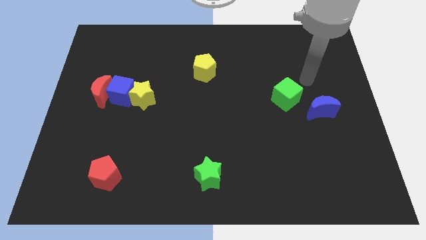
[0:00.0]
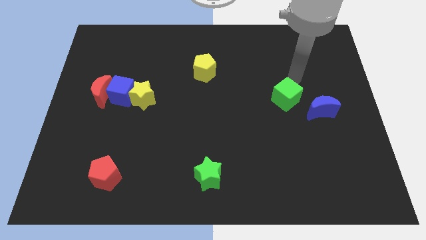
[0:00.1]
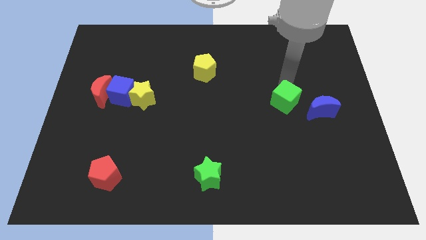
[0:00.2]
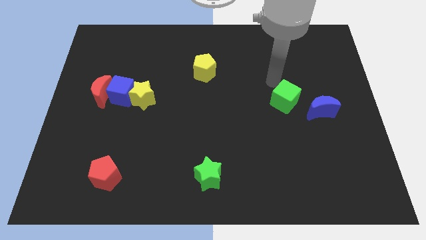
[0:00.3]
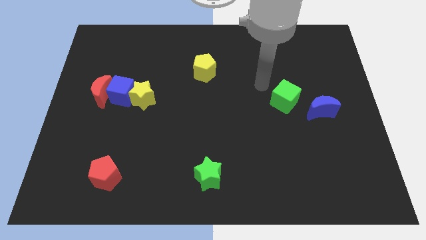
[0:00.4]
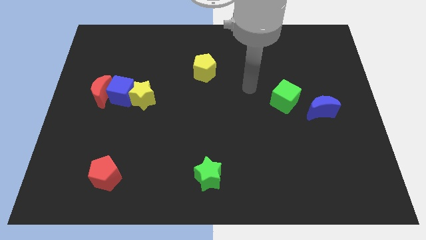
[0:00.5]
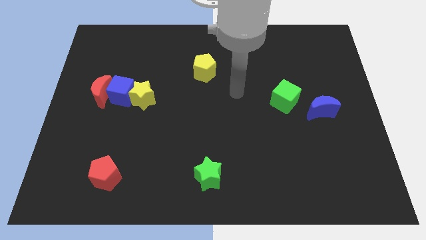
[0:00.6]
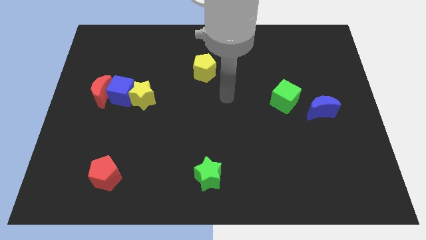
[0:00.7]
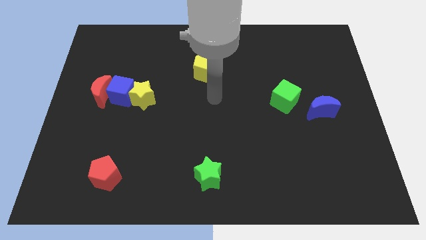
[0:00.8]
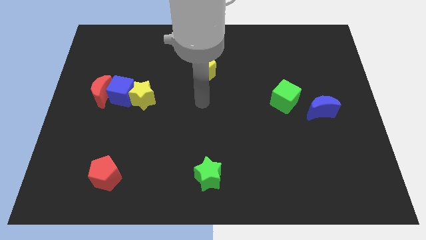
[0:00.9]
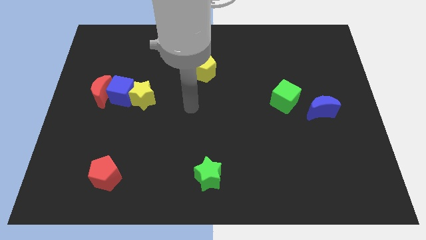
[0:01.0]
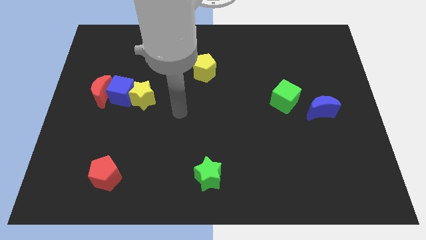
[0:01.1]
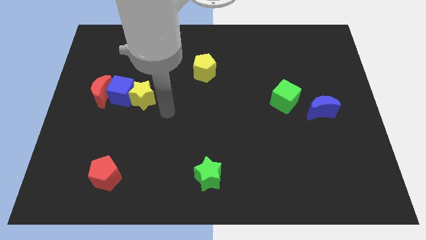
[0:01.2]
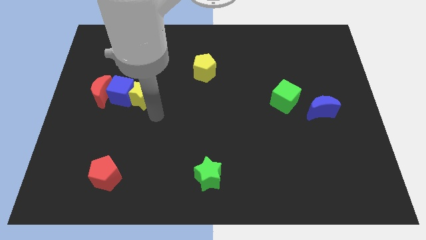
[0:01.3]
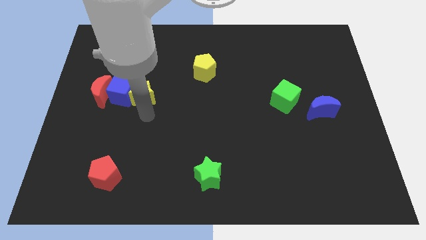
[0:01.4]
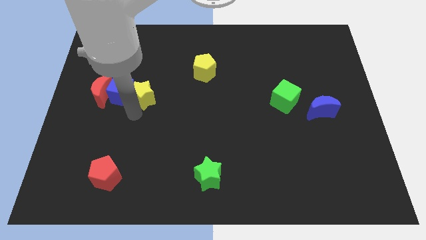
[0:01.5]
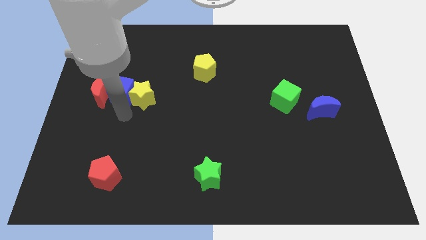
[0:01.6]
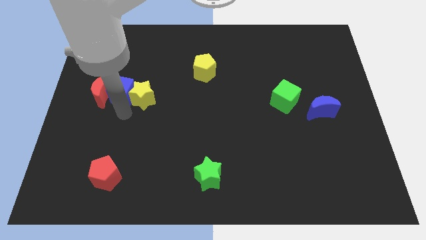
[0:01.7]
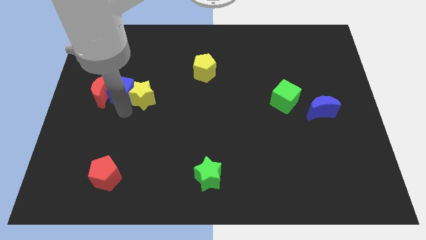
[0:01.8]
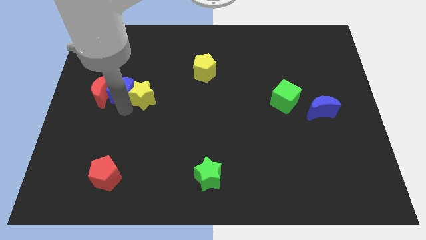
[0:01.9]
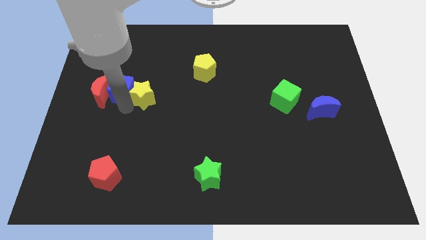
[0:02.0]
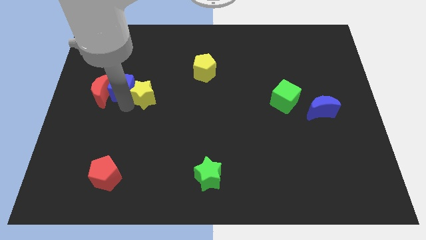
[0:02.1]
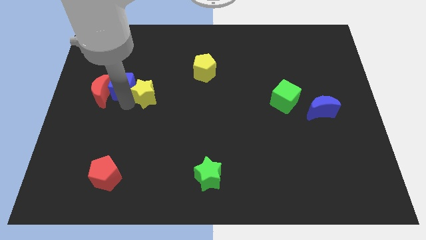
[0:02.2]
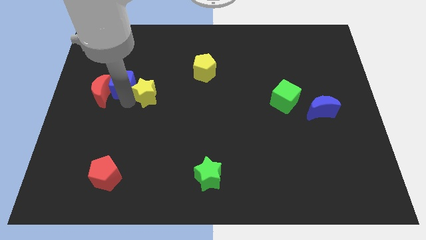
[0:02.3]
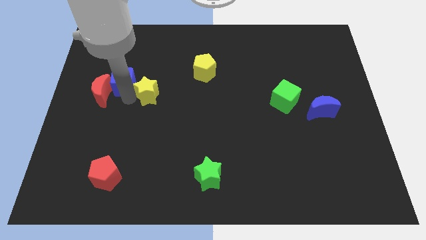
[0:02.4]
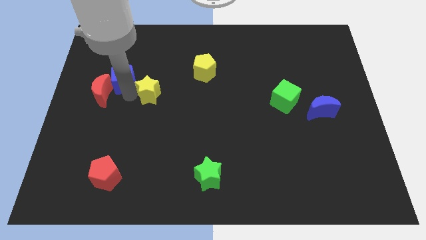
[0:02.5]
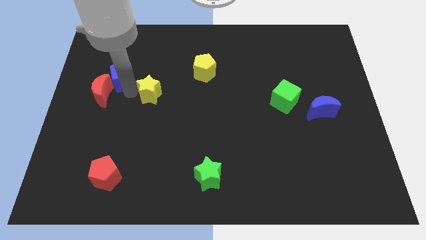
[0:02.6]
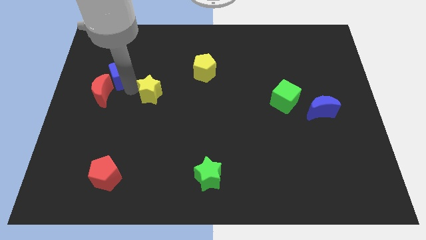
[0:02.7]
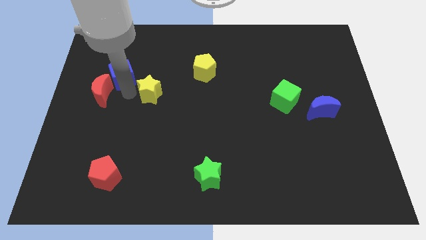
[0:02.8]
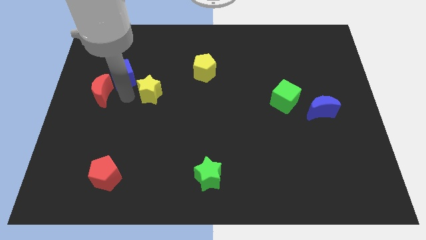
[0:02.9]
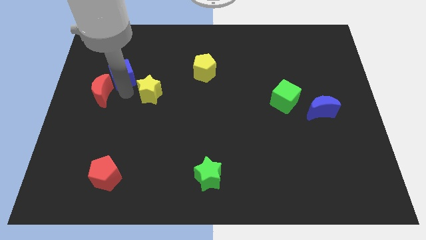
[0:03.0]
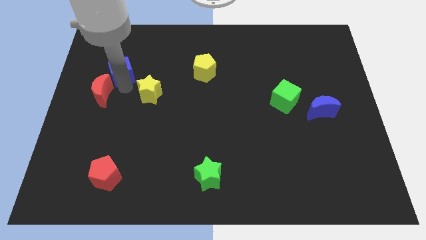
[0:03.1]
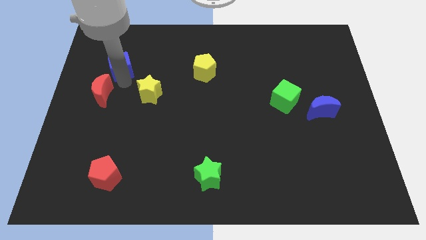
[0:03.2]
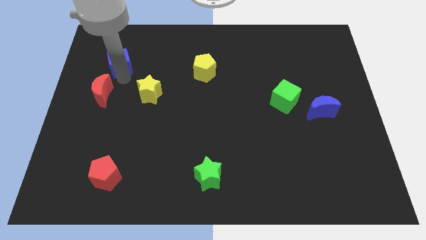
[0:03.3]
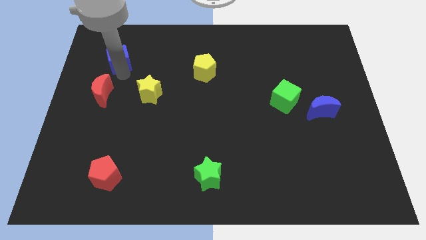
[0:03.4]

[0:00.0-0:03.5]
move the blue cube away from the red moon and yellow star

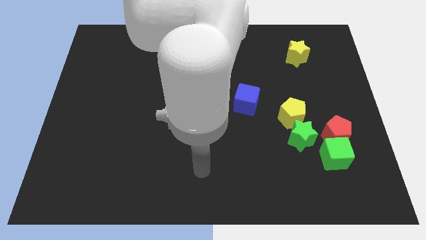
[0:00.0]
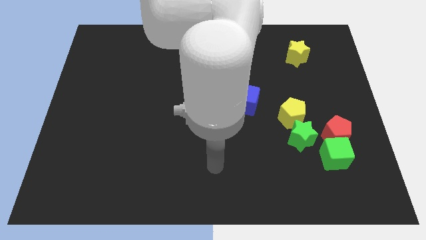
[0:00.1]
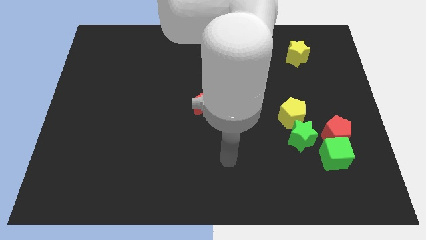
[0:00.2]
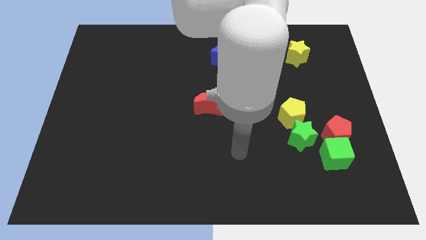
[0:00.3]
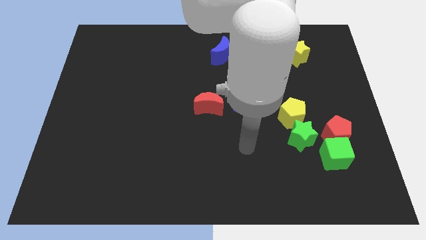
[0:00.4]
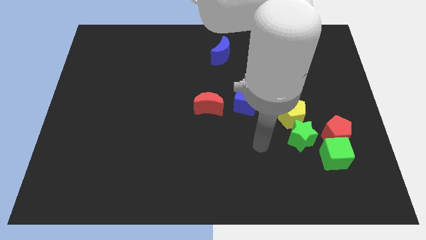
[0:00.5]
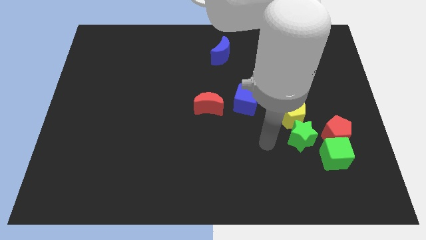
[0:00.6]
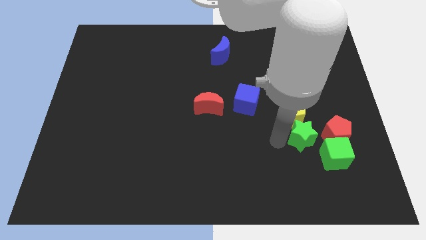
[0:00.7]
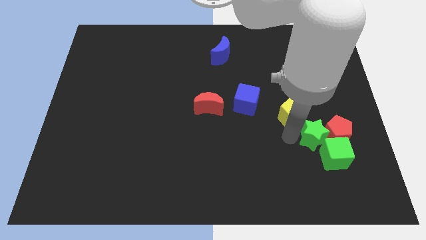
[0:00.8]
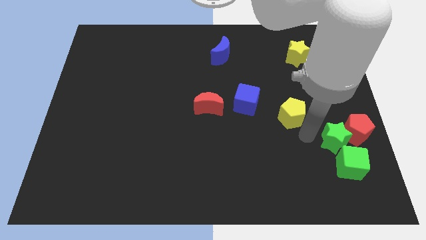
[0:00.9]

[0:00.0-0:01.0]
pull the yellow pentagon apart from the green star

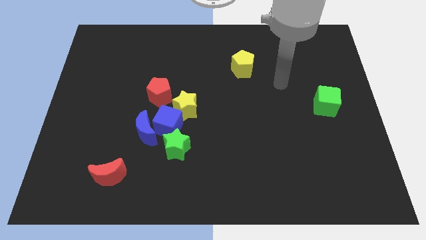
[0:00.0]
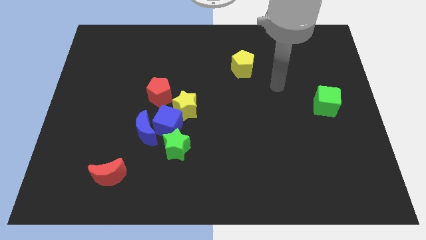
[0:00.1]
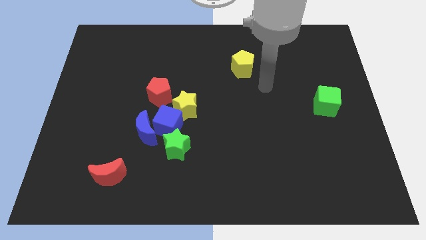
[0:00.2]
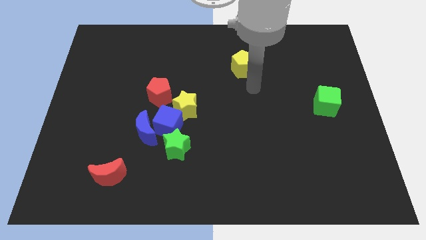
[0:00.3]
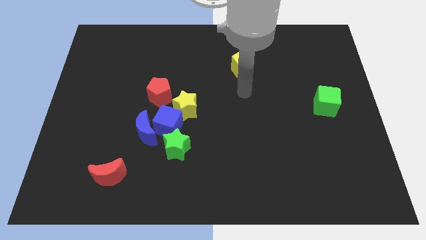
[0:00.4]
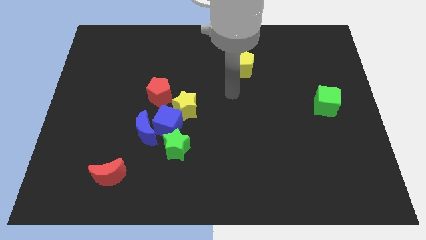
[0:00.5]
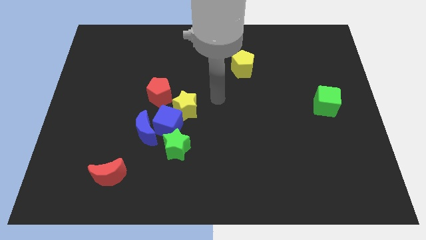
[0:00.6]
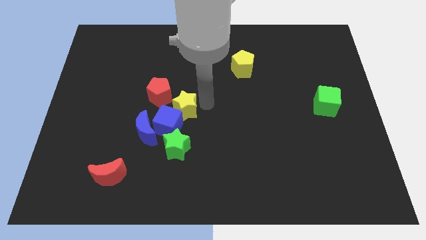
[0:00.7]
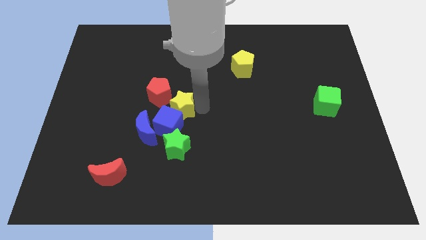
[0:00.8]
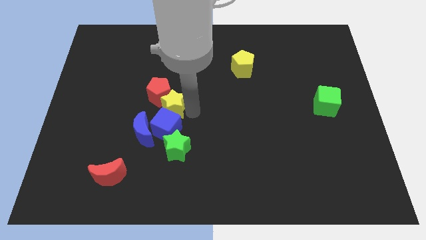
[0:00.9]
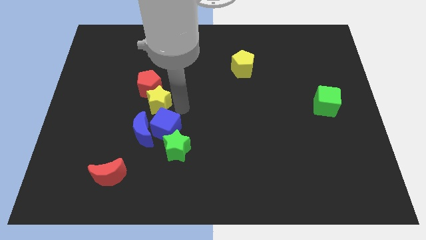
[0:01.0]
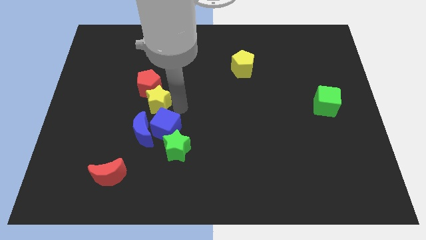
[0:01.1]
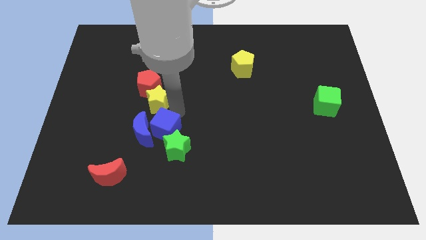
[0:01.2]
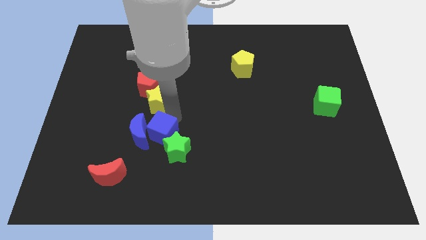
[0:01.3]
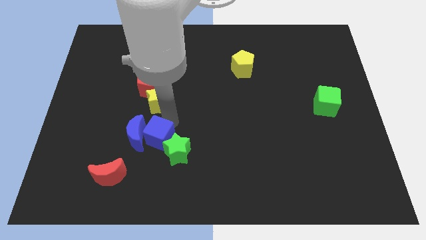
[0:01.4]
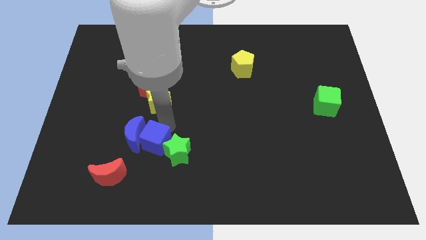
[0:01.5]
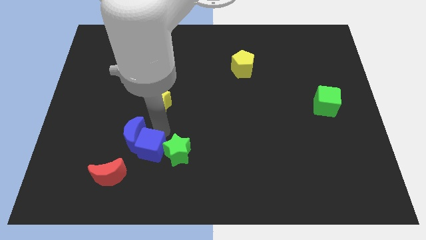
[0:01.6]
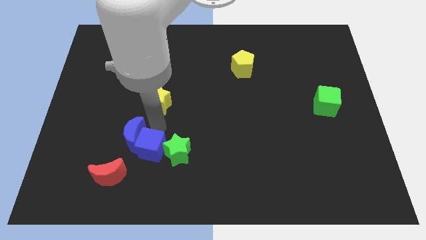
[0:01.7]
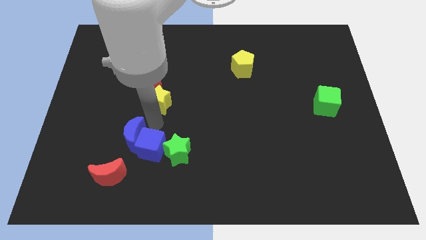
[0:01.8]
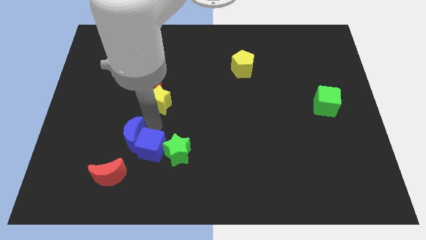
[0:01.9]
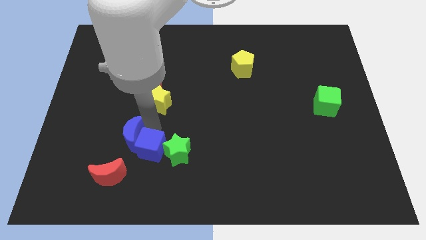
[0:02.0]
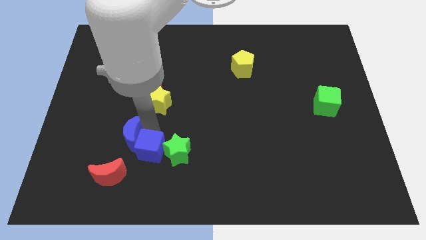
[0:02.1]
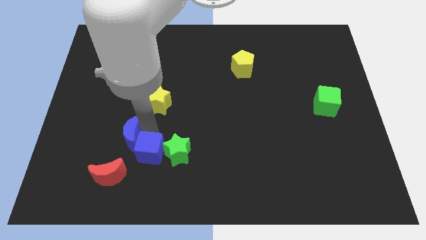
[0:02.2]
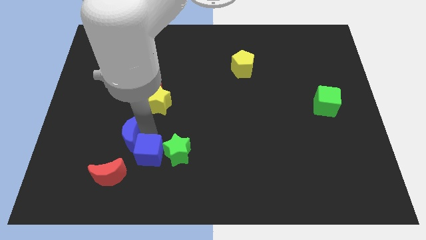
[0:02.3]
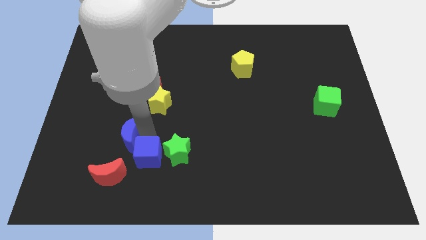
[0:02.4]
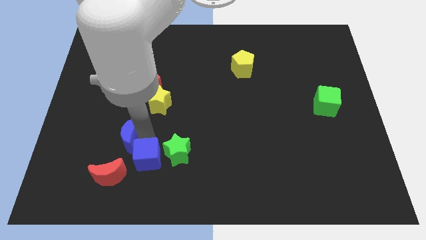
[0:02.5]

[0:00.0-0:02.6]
move the blue cube away from the clump

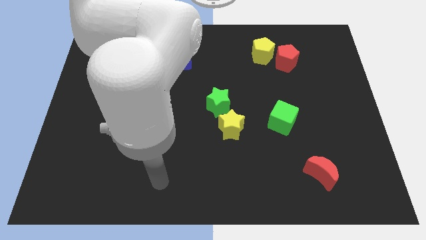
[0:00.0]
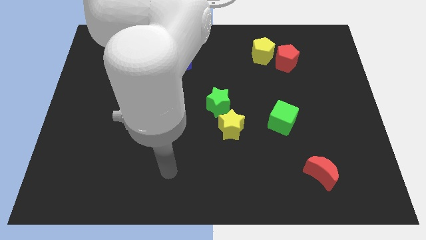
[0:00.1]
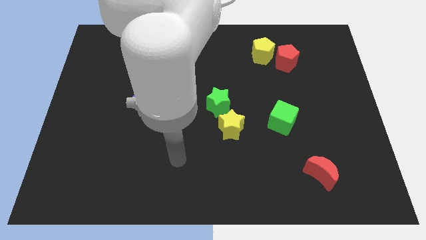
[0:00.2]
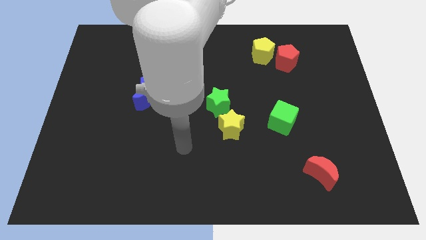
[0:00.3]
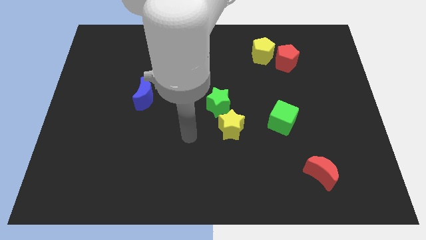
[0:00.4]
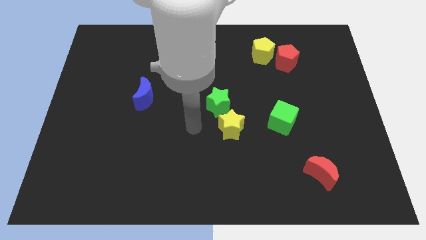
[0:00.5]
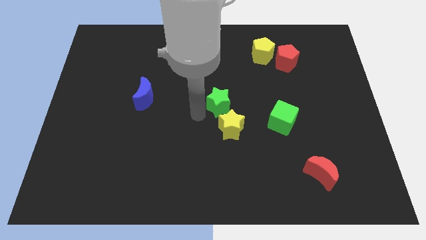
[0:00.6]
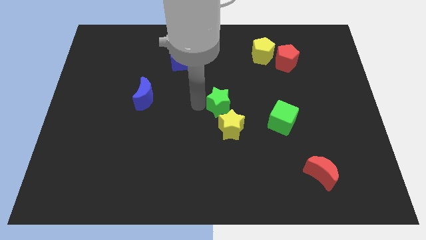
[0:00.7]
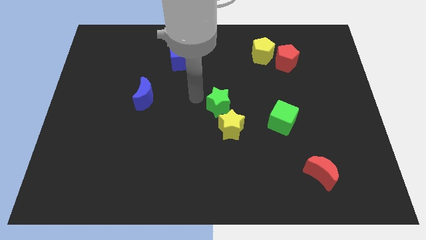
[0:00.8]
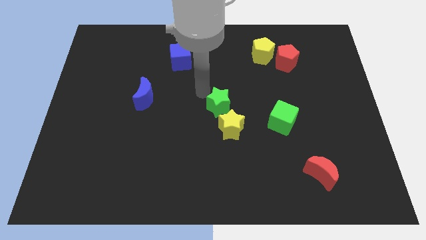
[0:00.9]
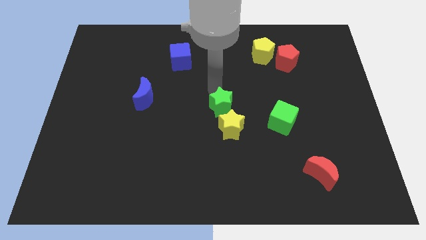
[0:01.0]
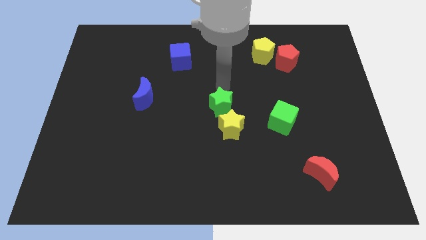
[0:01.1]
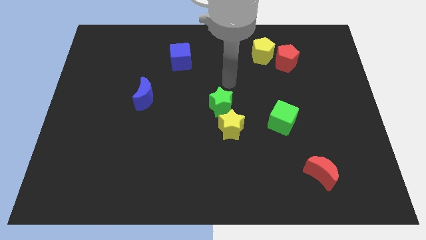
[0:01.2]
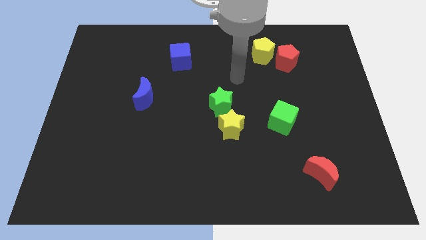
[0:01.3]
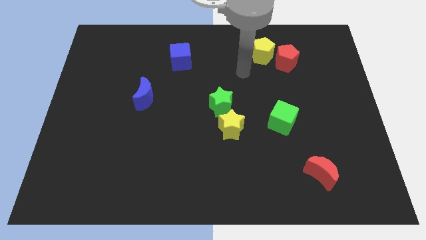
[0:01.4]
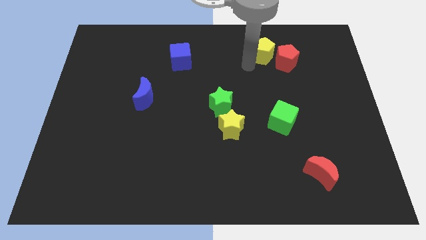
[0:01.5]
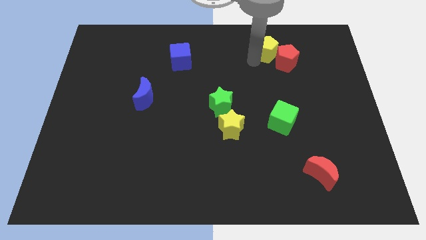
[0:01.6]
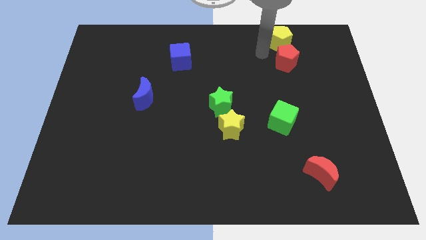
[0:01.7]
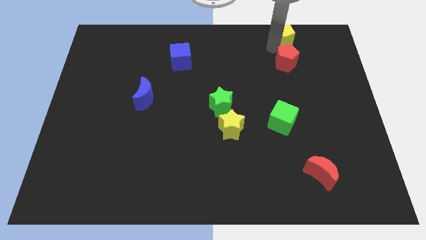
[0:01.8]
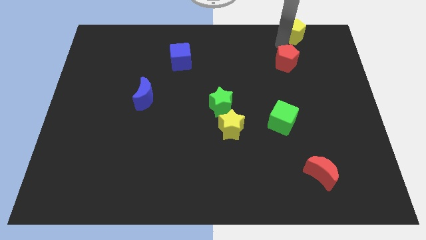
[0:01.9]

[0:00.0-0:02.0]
separate the red pentagon from the yellow pentagon

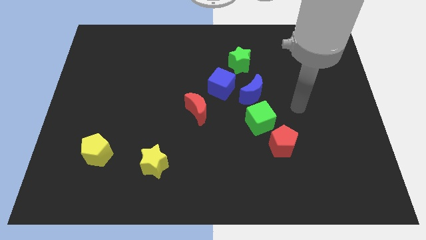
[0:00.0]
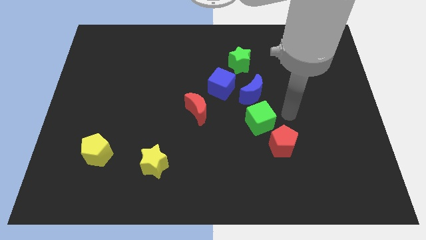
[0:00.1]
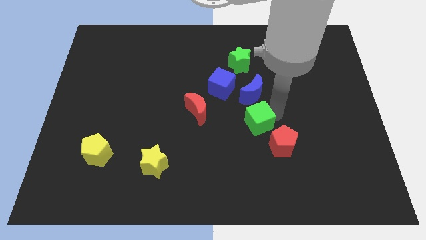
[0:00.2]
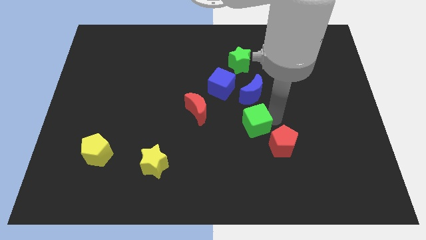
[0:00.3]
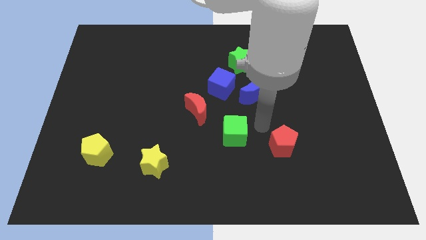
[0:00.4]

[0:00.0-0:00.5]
move the red pentagon away from the green cube
